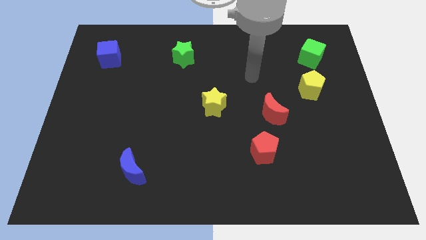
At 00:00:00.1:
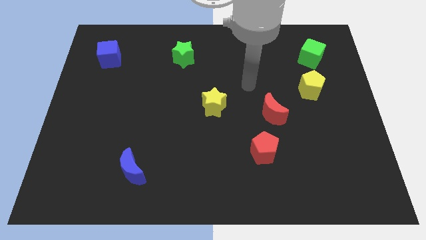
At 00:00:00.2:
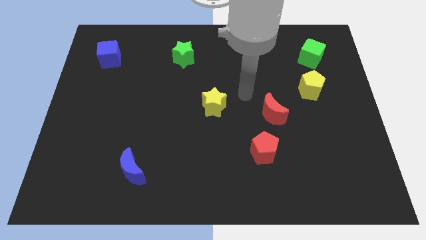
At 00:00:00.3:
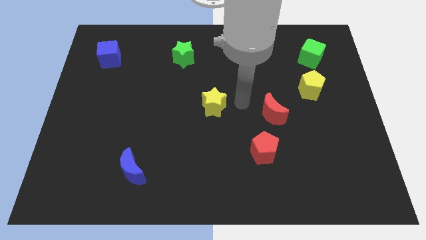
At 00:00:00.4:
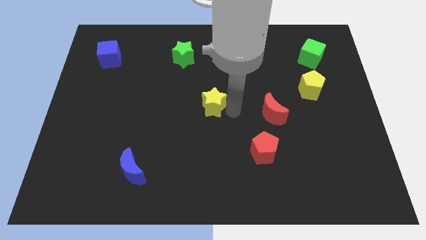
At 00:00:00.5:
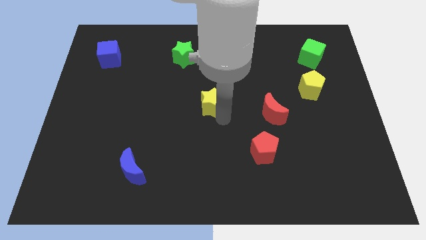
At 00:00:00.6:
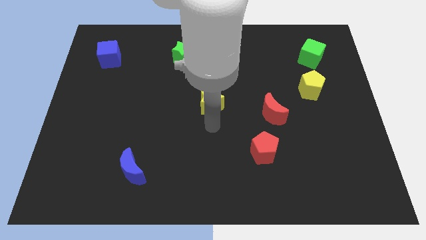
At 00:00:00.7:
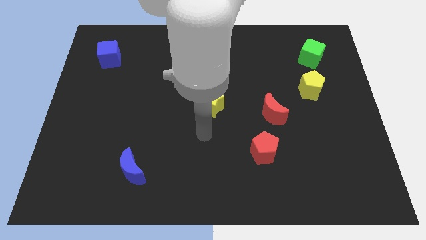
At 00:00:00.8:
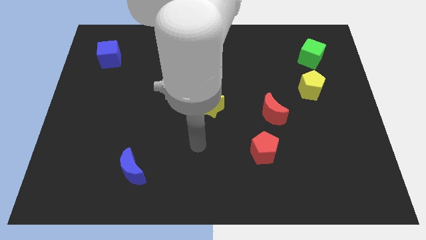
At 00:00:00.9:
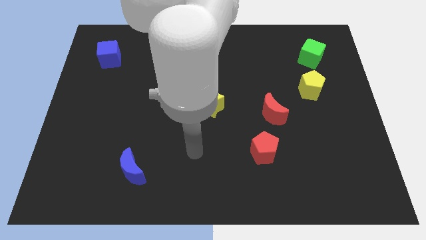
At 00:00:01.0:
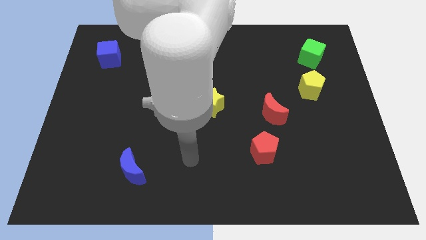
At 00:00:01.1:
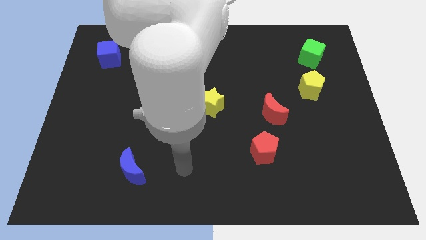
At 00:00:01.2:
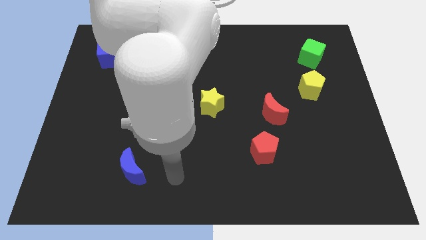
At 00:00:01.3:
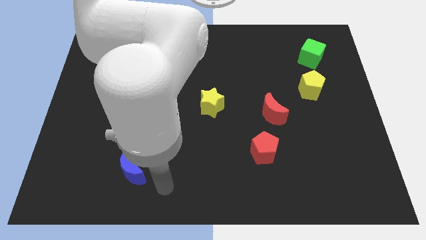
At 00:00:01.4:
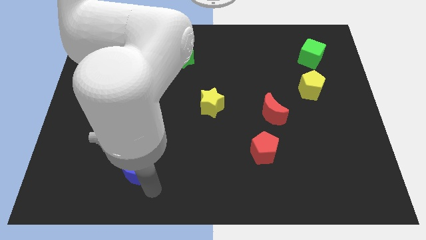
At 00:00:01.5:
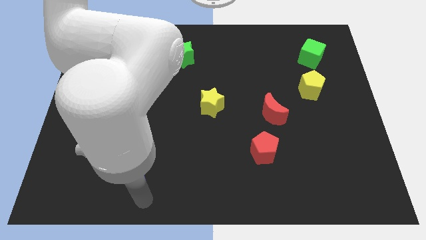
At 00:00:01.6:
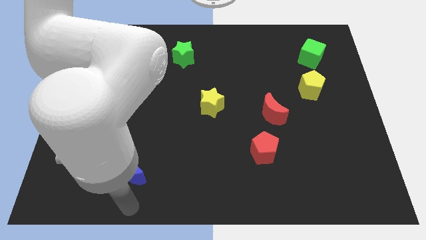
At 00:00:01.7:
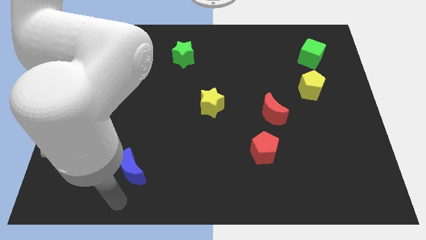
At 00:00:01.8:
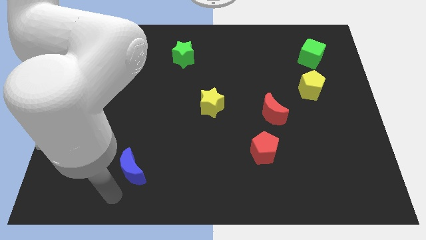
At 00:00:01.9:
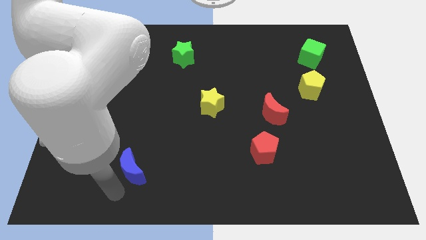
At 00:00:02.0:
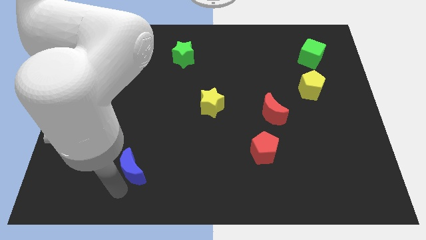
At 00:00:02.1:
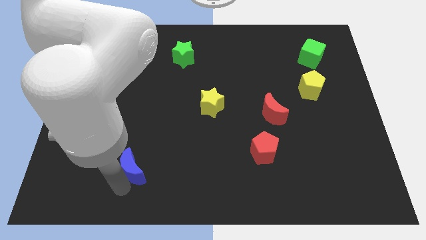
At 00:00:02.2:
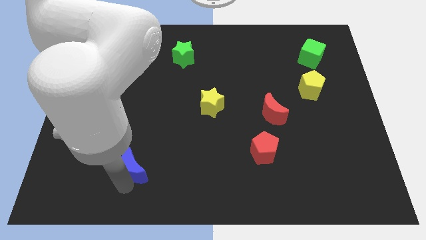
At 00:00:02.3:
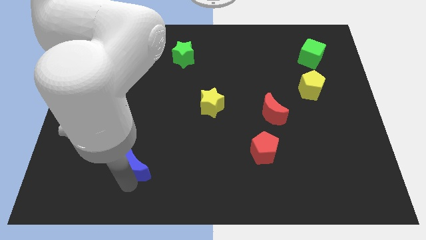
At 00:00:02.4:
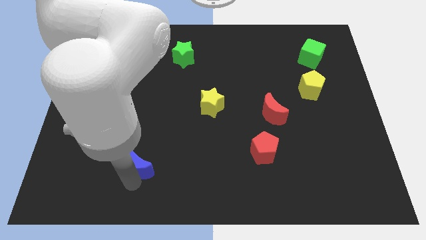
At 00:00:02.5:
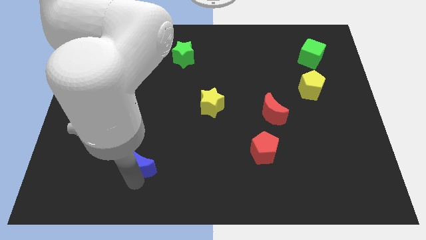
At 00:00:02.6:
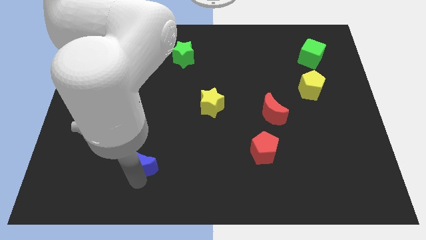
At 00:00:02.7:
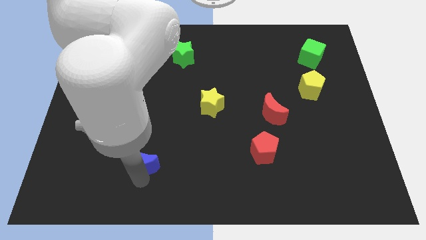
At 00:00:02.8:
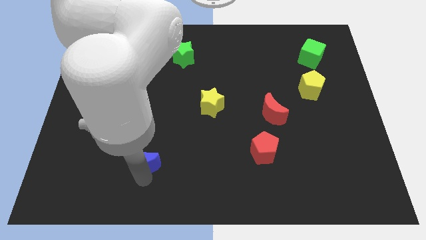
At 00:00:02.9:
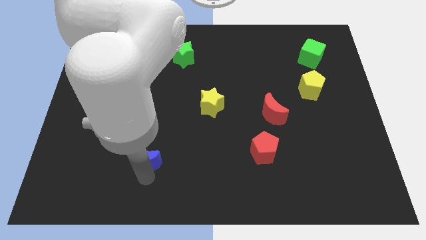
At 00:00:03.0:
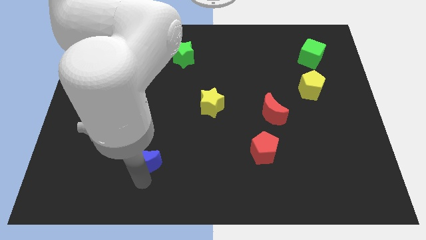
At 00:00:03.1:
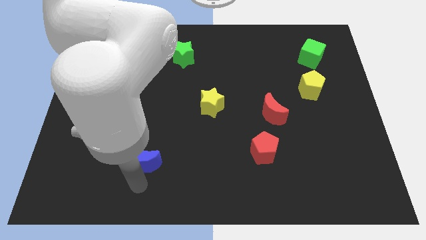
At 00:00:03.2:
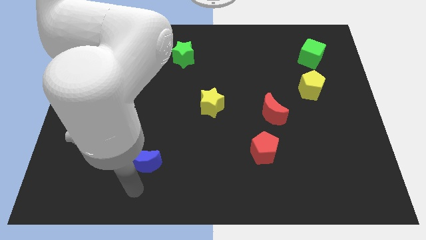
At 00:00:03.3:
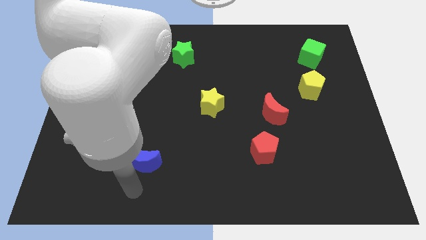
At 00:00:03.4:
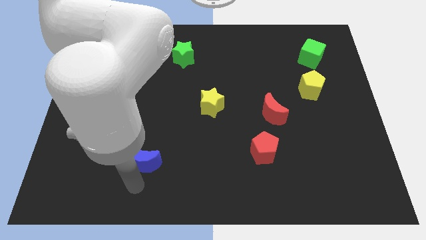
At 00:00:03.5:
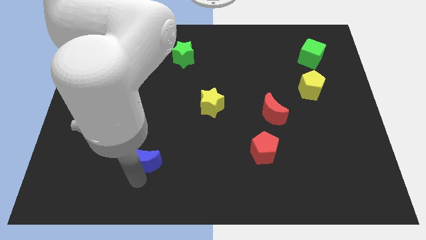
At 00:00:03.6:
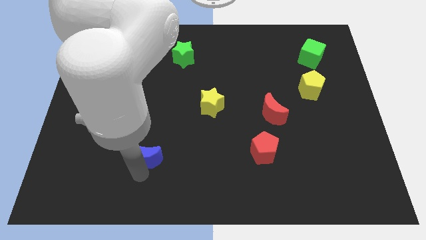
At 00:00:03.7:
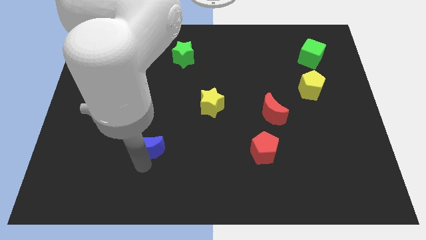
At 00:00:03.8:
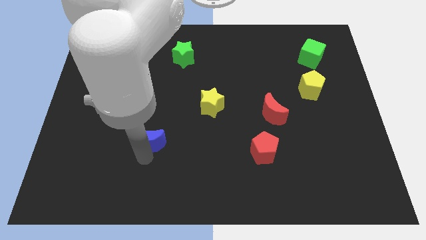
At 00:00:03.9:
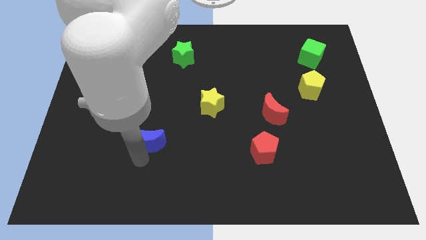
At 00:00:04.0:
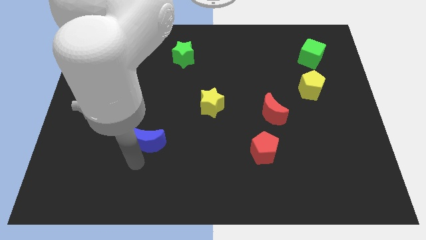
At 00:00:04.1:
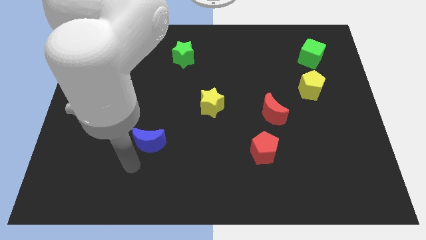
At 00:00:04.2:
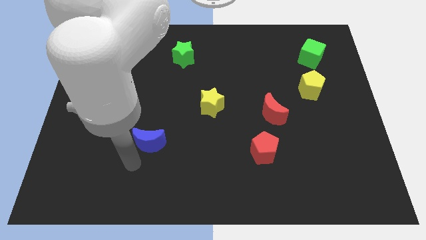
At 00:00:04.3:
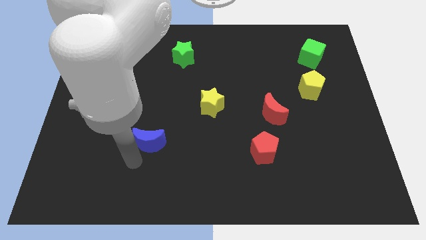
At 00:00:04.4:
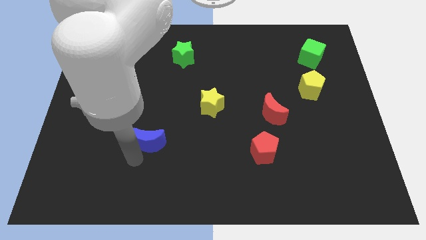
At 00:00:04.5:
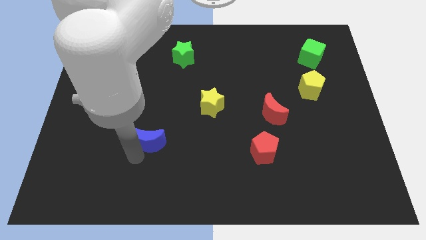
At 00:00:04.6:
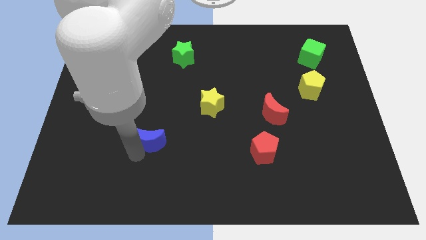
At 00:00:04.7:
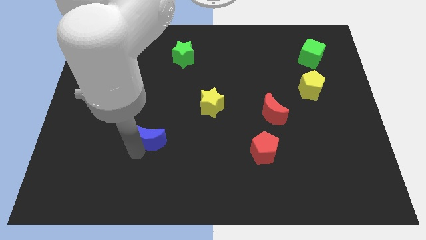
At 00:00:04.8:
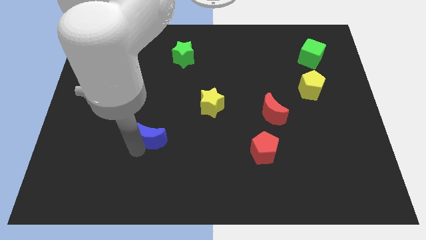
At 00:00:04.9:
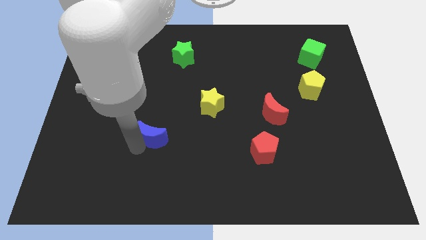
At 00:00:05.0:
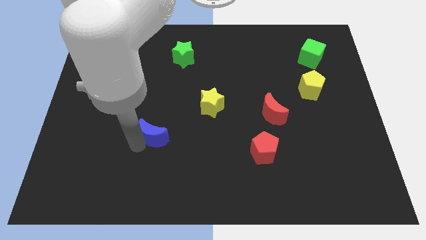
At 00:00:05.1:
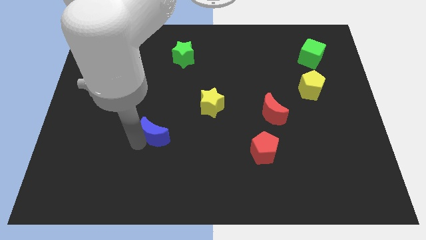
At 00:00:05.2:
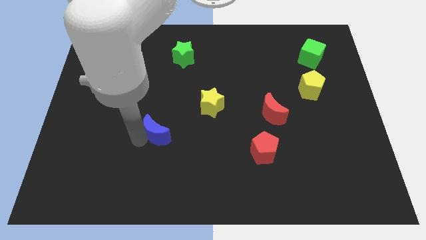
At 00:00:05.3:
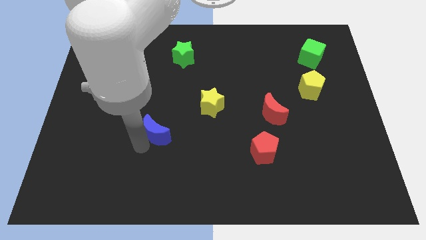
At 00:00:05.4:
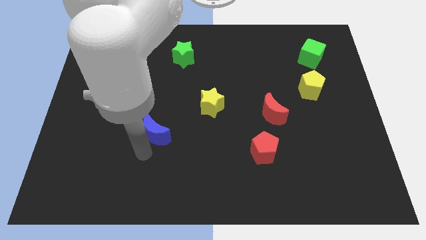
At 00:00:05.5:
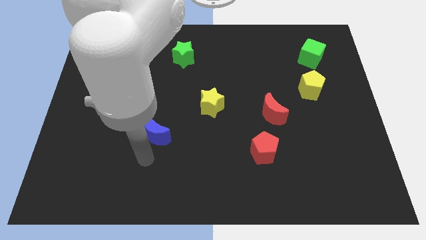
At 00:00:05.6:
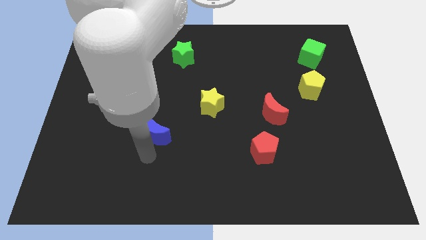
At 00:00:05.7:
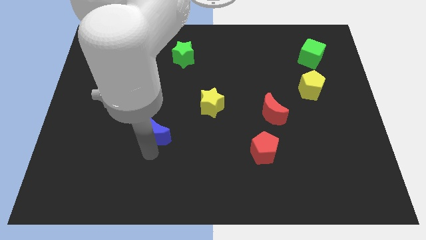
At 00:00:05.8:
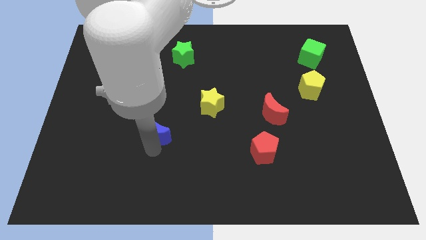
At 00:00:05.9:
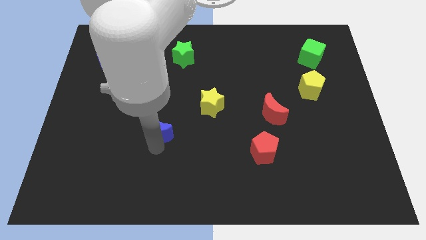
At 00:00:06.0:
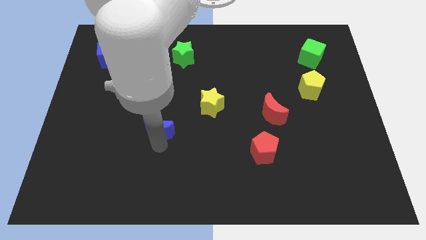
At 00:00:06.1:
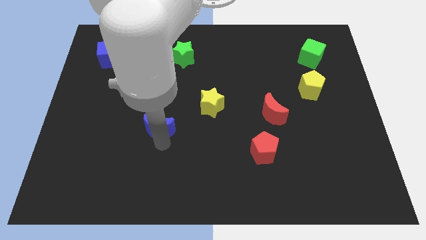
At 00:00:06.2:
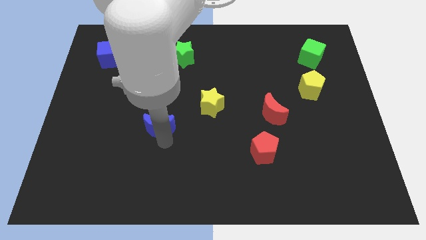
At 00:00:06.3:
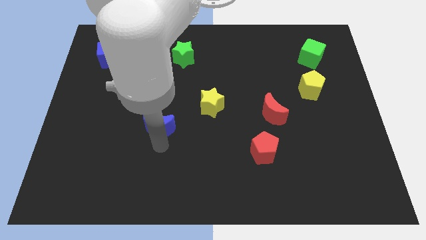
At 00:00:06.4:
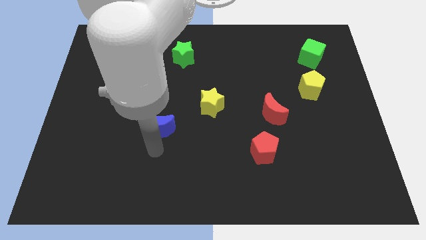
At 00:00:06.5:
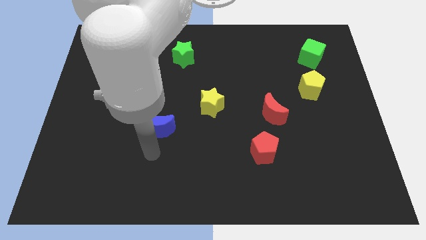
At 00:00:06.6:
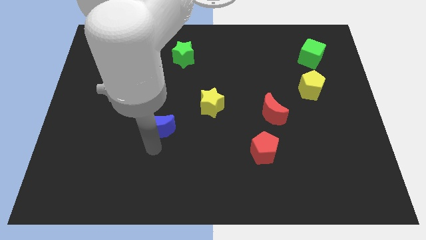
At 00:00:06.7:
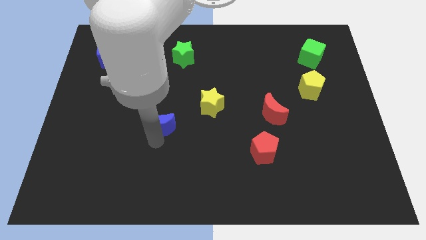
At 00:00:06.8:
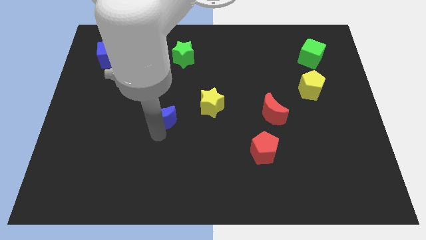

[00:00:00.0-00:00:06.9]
push the blue moon to the left side of the yellow star

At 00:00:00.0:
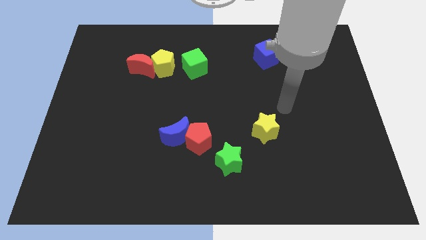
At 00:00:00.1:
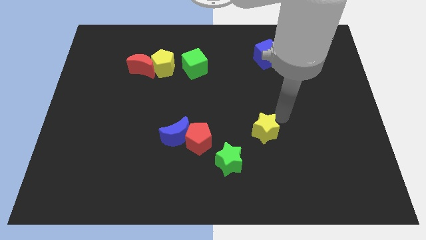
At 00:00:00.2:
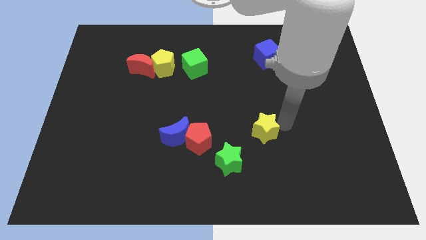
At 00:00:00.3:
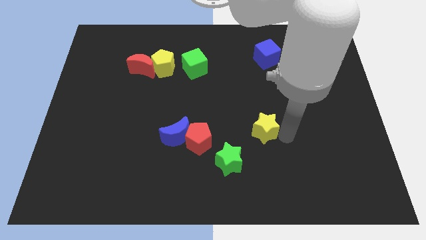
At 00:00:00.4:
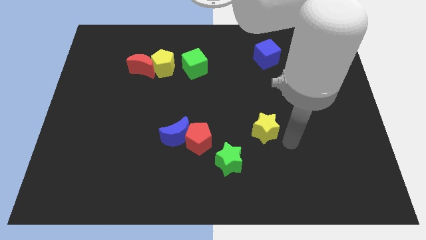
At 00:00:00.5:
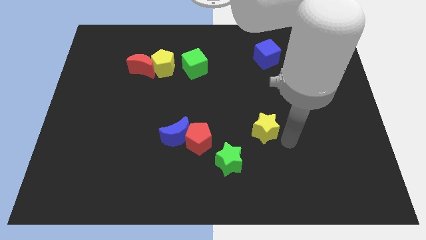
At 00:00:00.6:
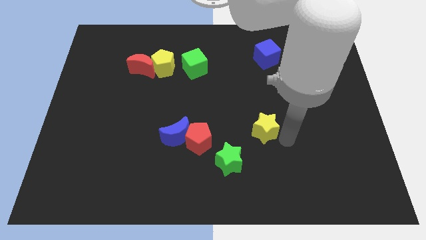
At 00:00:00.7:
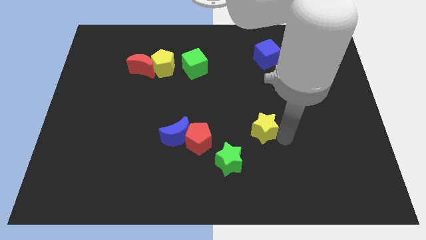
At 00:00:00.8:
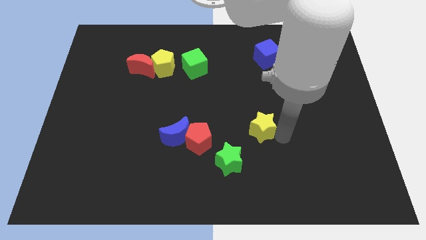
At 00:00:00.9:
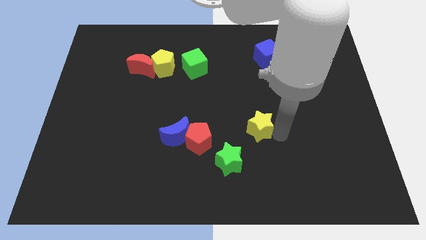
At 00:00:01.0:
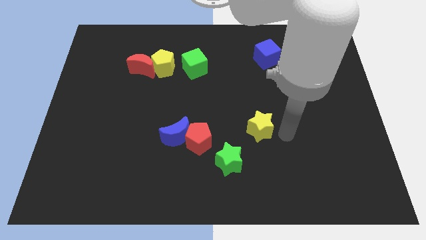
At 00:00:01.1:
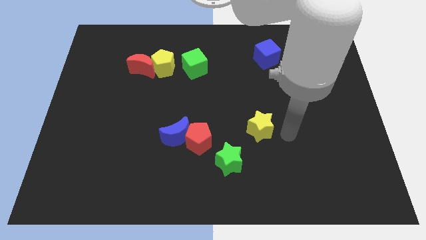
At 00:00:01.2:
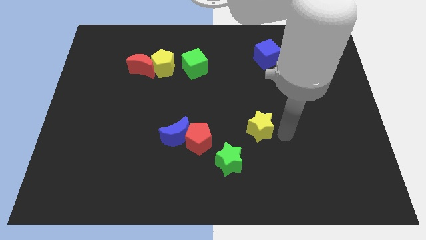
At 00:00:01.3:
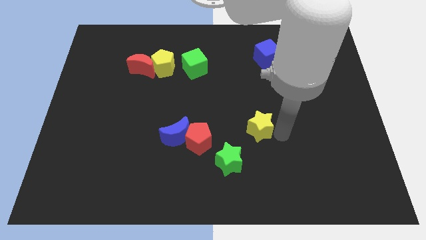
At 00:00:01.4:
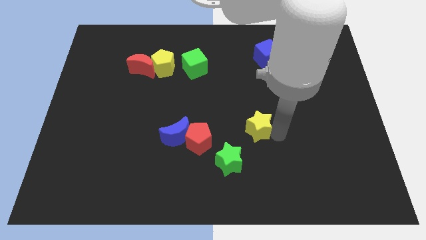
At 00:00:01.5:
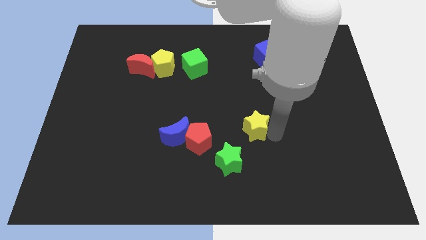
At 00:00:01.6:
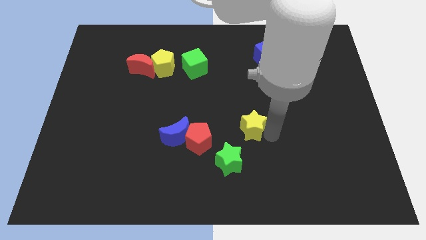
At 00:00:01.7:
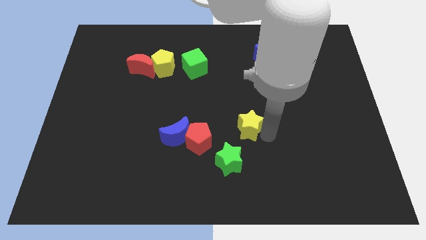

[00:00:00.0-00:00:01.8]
put the yellow star above the green star
